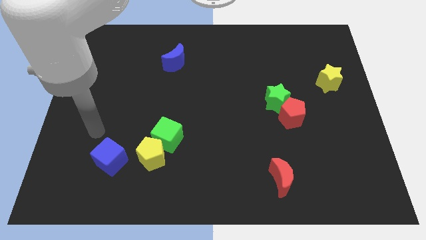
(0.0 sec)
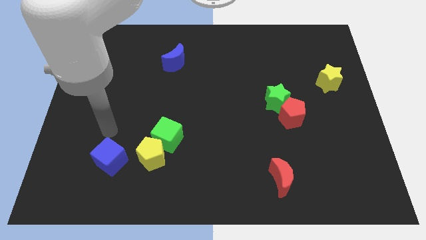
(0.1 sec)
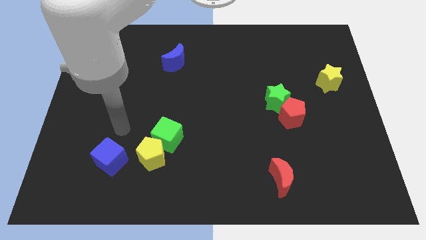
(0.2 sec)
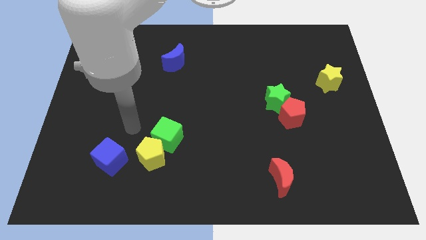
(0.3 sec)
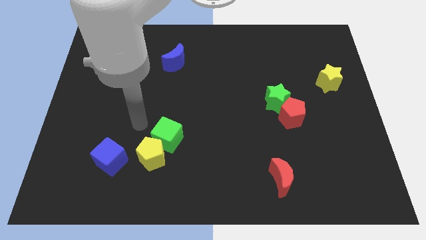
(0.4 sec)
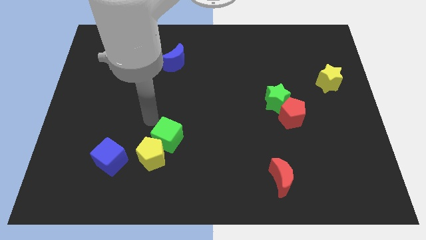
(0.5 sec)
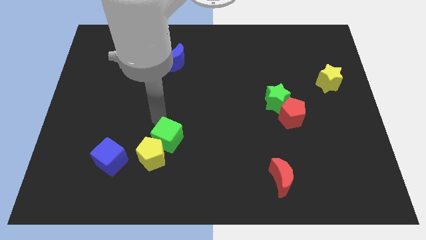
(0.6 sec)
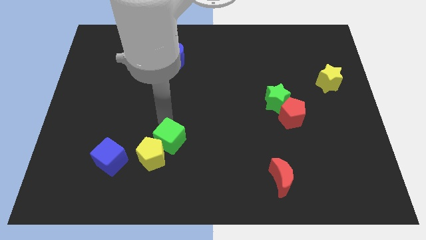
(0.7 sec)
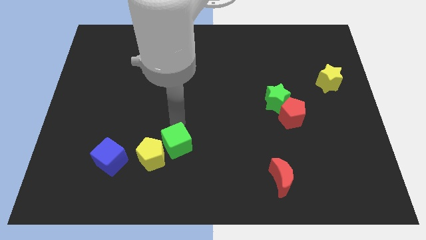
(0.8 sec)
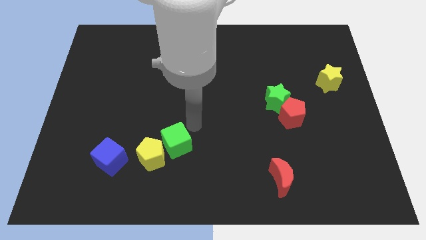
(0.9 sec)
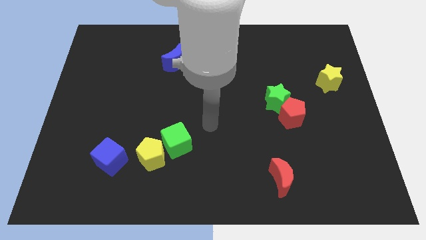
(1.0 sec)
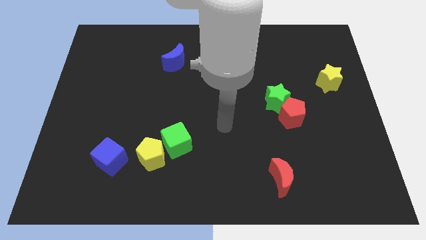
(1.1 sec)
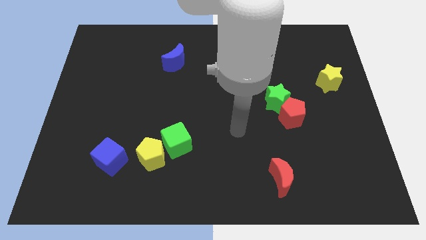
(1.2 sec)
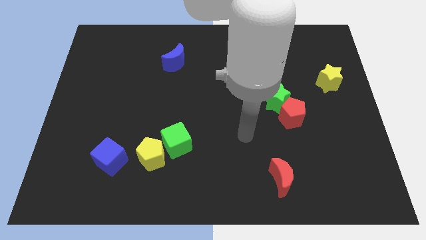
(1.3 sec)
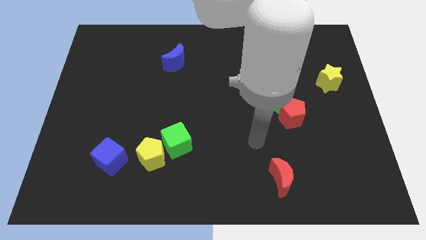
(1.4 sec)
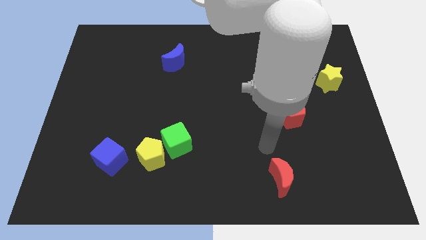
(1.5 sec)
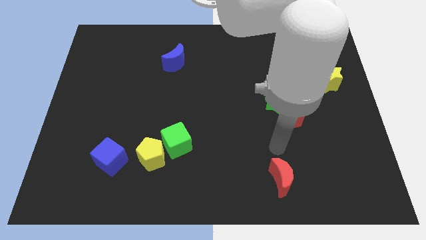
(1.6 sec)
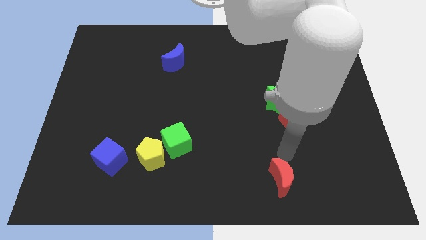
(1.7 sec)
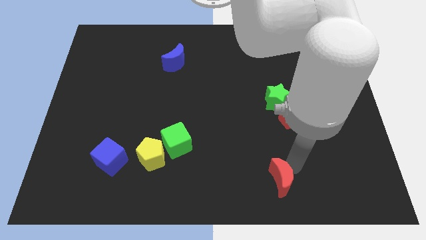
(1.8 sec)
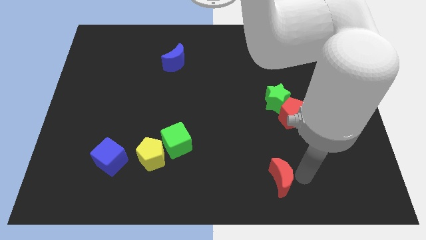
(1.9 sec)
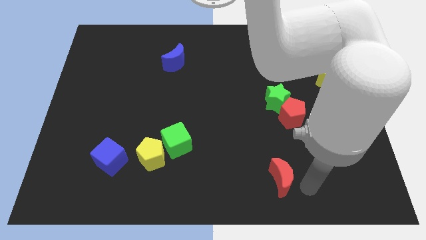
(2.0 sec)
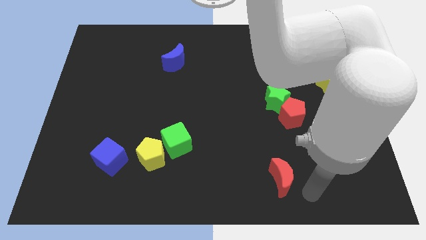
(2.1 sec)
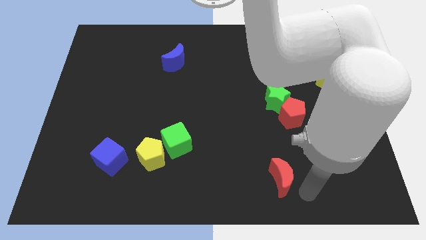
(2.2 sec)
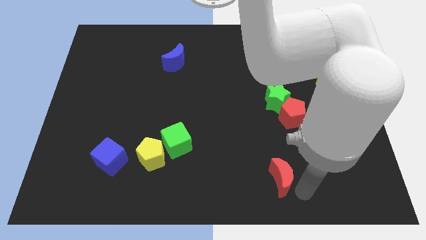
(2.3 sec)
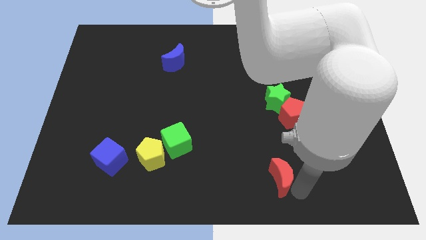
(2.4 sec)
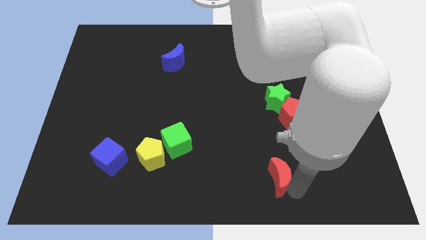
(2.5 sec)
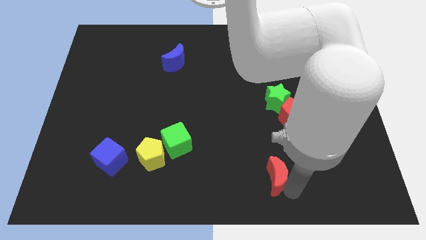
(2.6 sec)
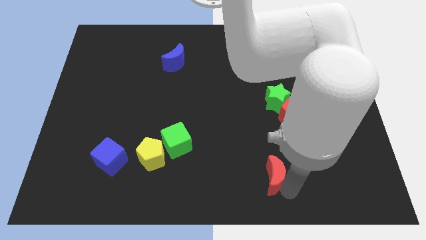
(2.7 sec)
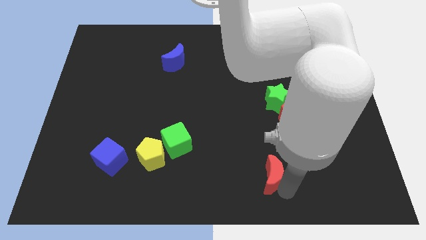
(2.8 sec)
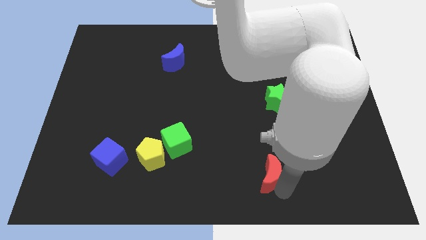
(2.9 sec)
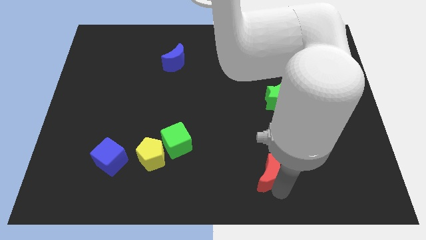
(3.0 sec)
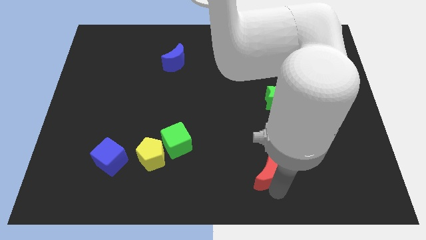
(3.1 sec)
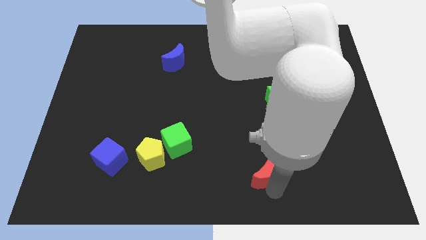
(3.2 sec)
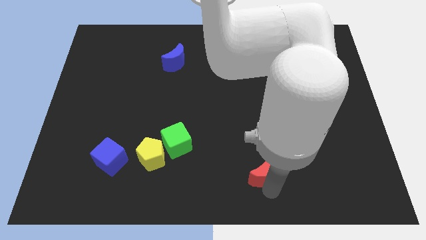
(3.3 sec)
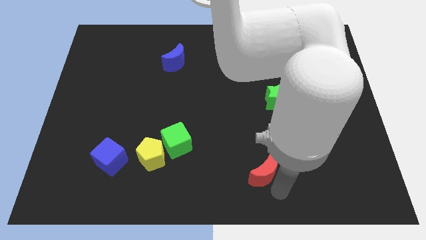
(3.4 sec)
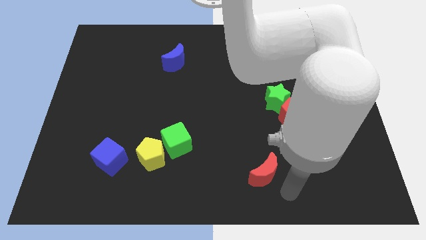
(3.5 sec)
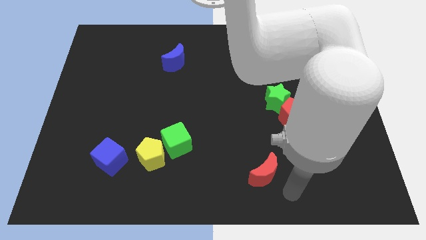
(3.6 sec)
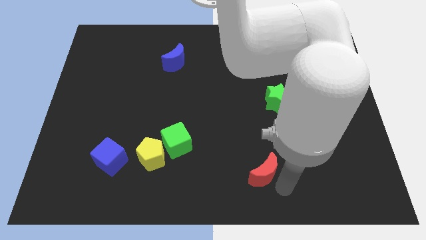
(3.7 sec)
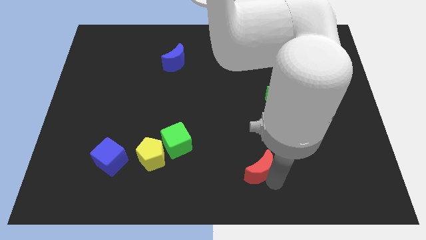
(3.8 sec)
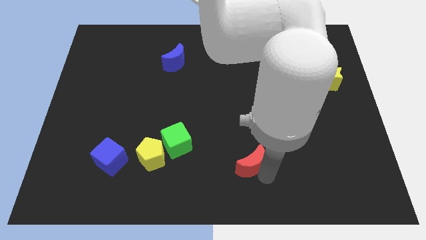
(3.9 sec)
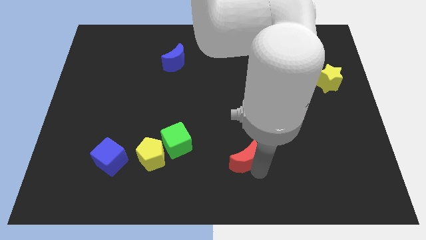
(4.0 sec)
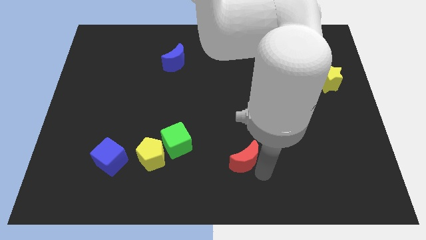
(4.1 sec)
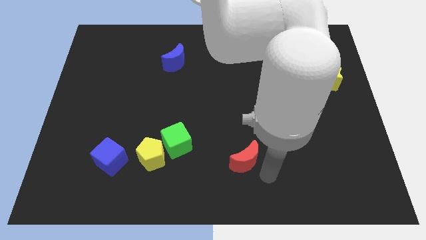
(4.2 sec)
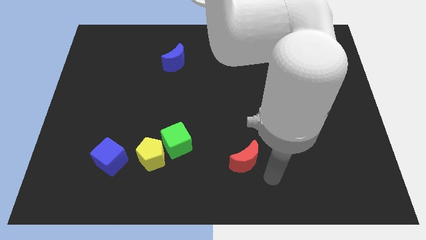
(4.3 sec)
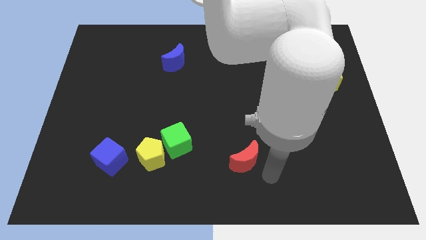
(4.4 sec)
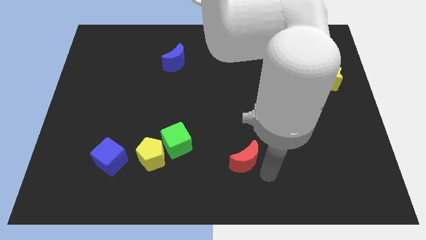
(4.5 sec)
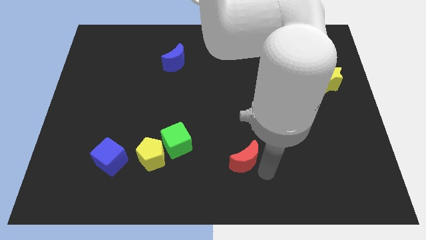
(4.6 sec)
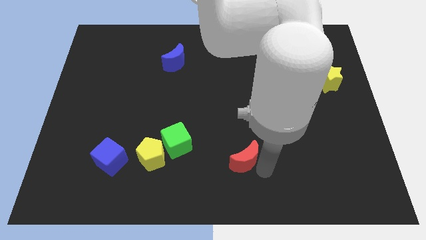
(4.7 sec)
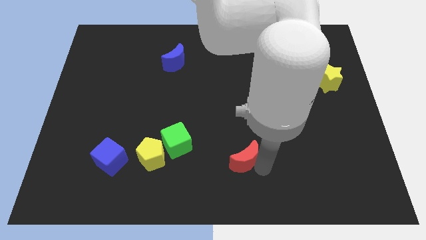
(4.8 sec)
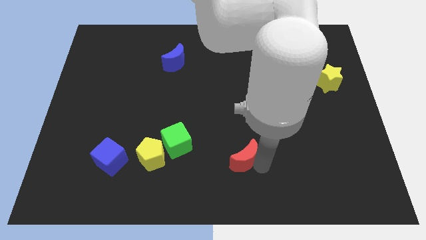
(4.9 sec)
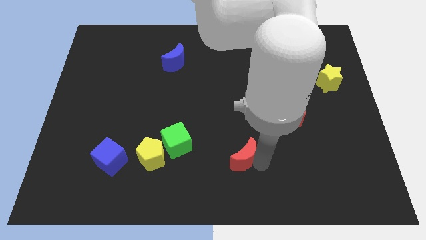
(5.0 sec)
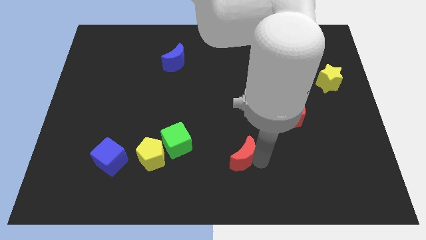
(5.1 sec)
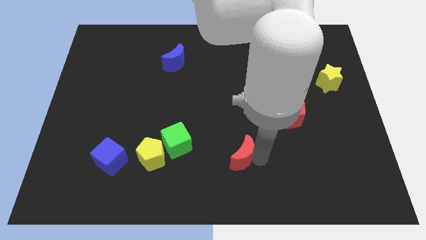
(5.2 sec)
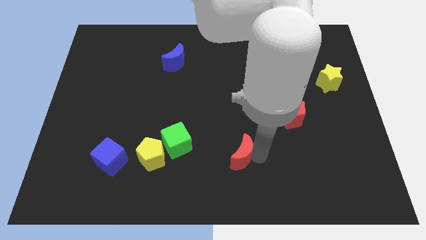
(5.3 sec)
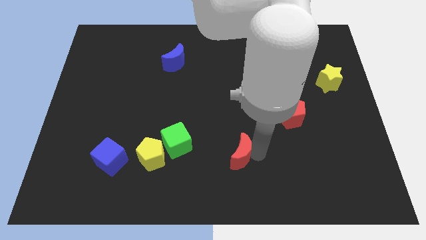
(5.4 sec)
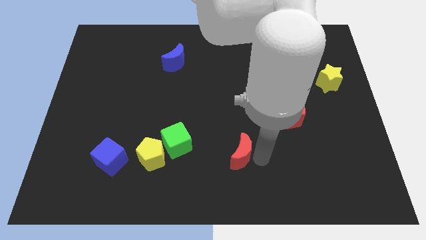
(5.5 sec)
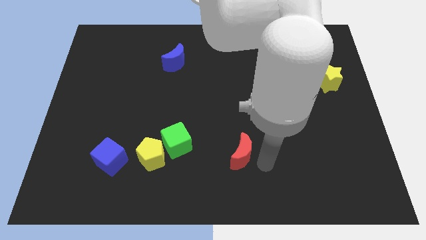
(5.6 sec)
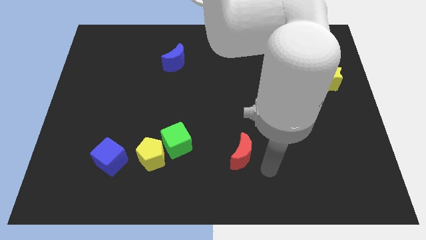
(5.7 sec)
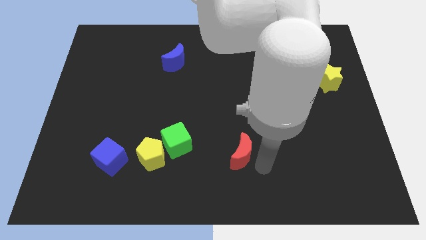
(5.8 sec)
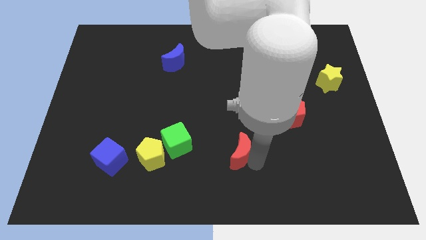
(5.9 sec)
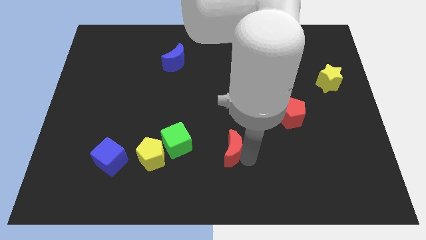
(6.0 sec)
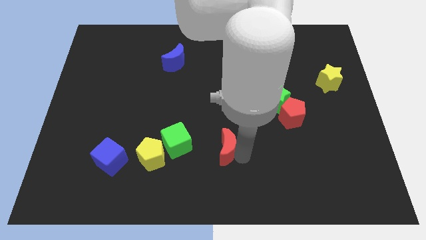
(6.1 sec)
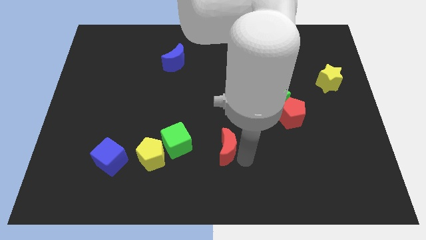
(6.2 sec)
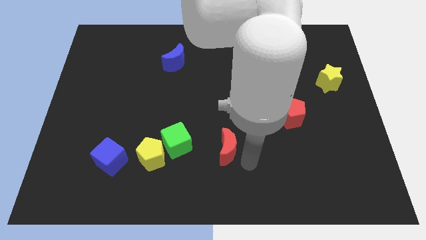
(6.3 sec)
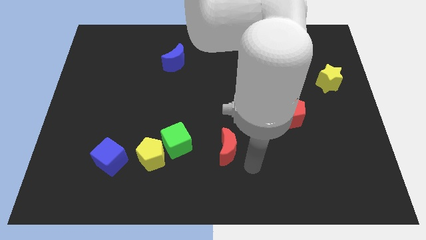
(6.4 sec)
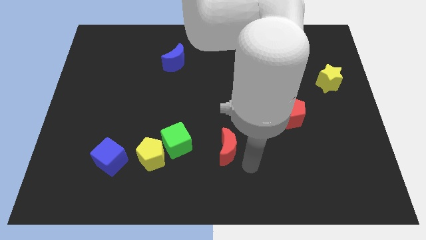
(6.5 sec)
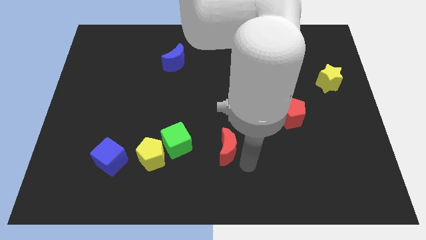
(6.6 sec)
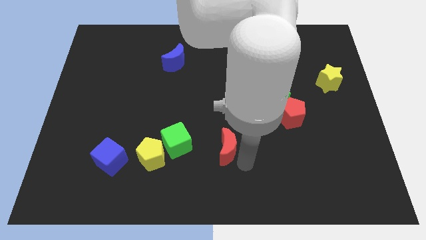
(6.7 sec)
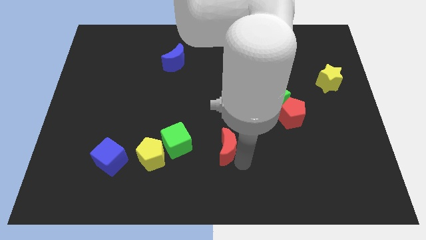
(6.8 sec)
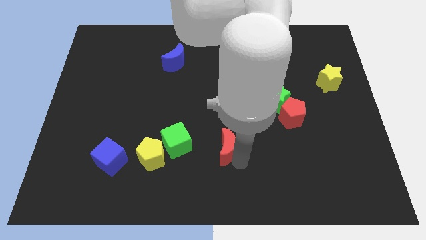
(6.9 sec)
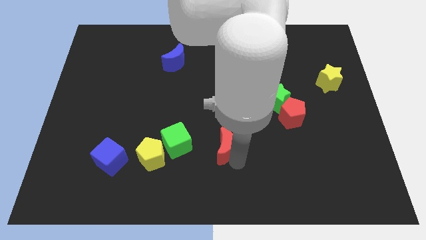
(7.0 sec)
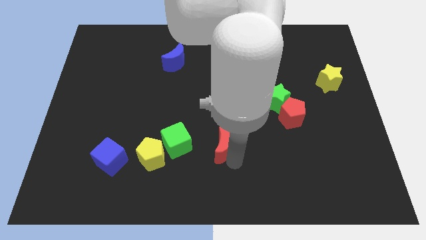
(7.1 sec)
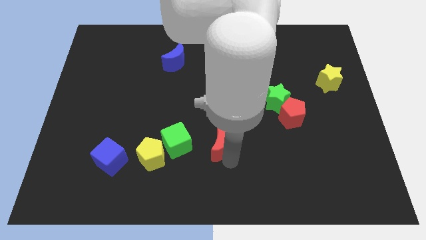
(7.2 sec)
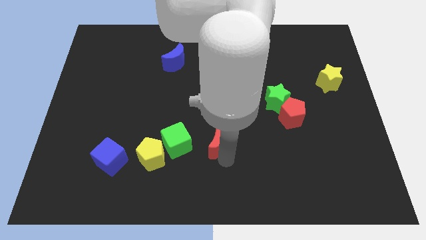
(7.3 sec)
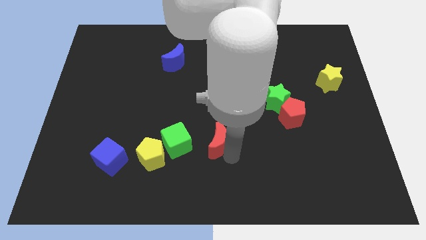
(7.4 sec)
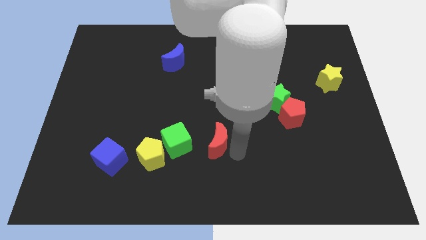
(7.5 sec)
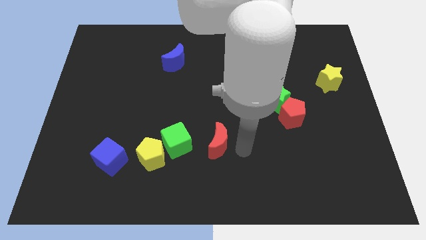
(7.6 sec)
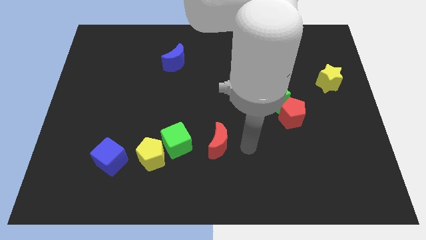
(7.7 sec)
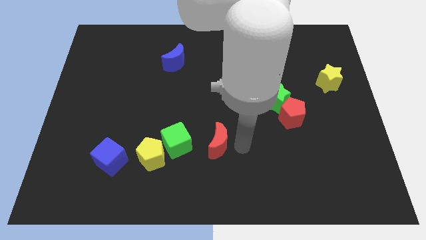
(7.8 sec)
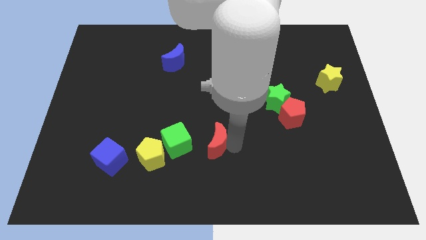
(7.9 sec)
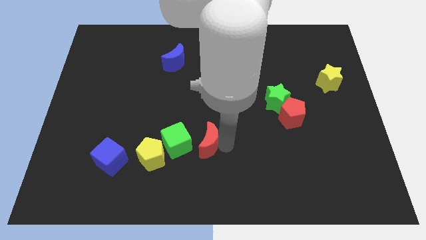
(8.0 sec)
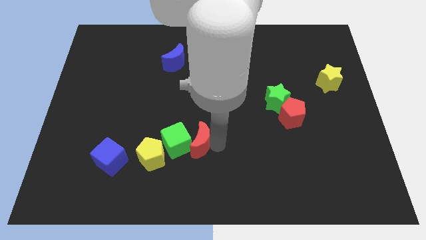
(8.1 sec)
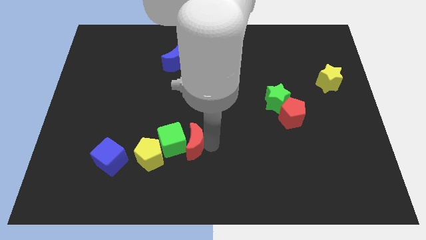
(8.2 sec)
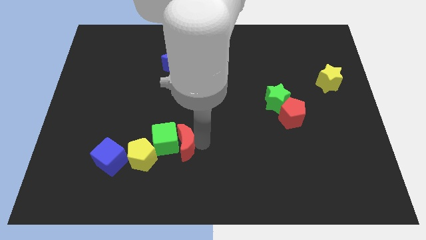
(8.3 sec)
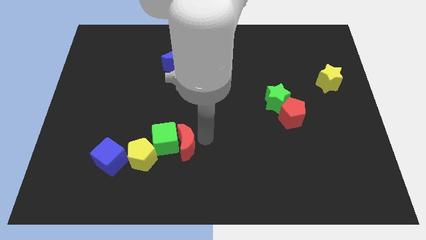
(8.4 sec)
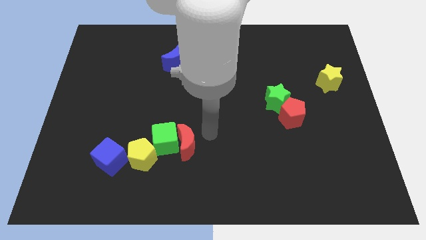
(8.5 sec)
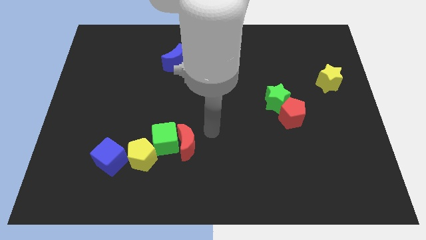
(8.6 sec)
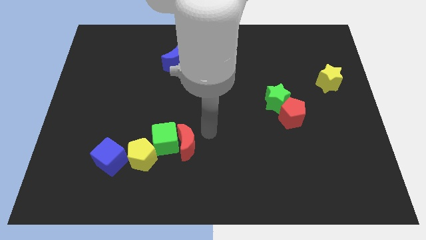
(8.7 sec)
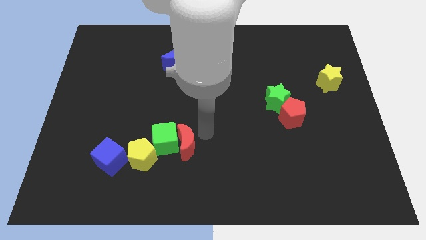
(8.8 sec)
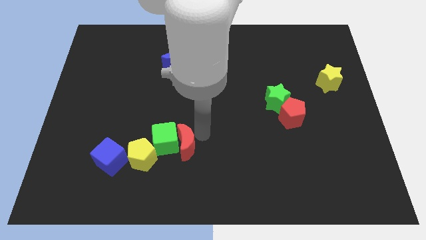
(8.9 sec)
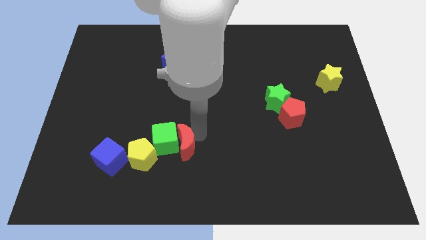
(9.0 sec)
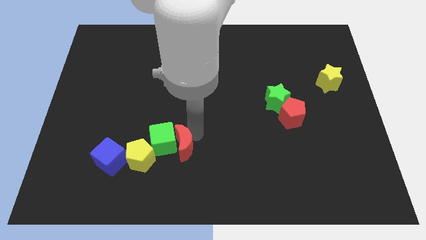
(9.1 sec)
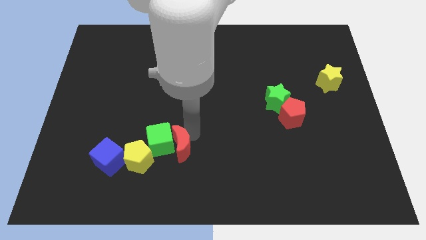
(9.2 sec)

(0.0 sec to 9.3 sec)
put the red moon to the right side of the blue cube
